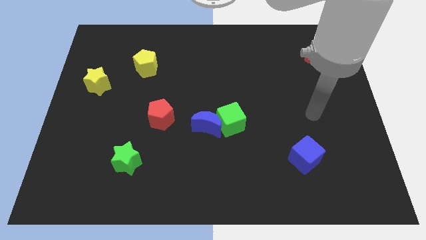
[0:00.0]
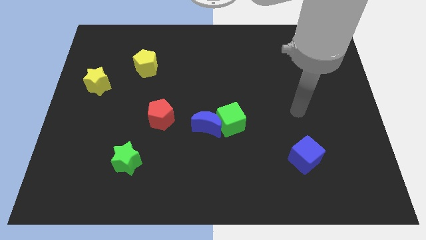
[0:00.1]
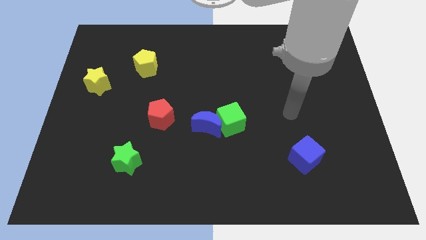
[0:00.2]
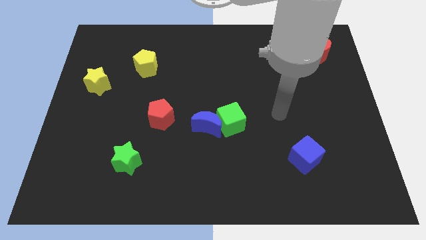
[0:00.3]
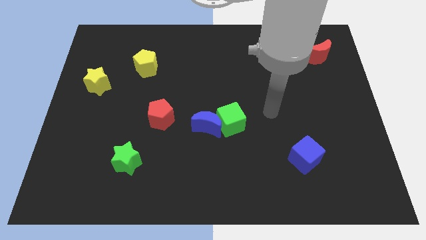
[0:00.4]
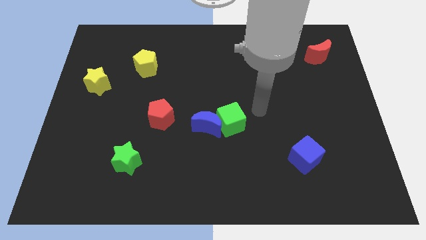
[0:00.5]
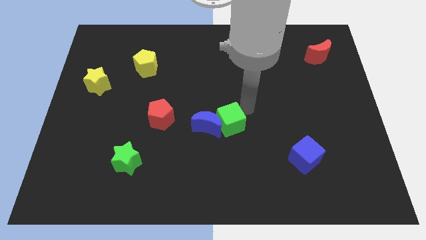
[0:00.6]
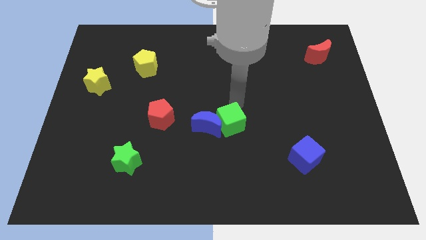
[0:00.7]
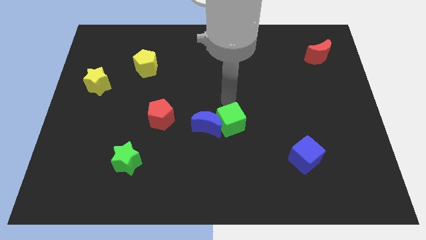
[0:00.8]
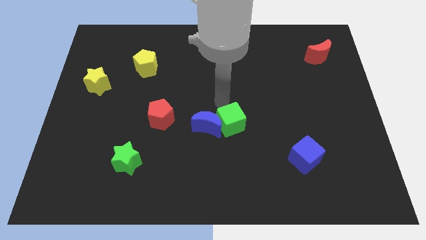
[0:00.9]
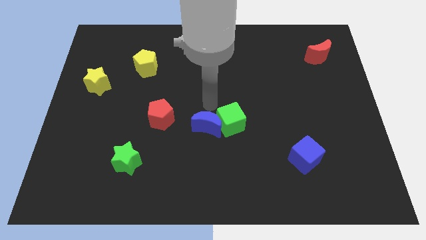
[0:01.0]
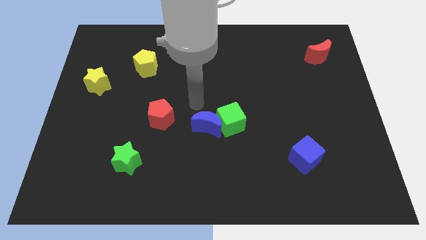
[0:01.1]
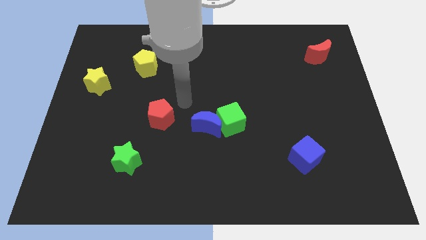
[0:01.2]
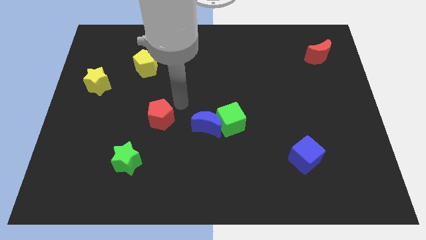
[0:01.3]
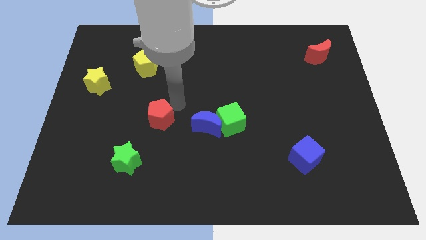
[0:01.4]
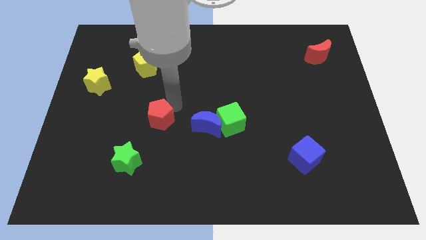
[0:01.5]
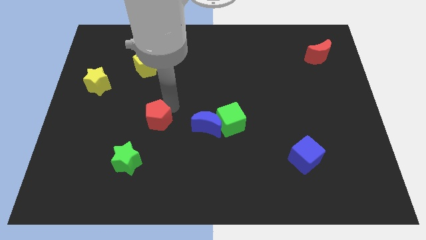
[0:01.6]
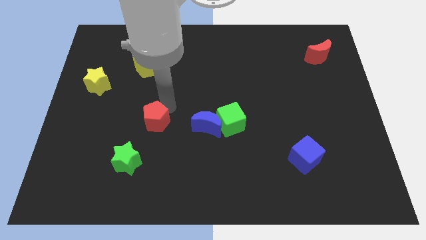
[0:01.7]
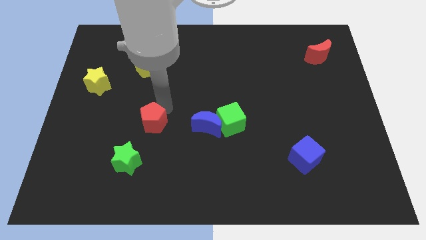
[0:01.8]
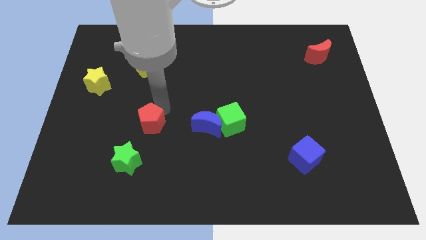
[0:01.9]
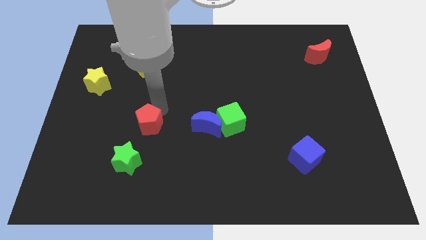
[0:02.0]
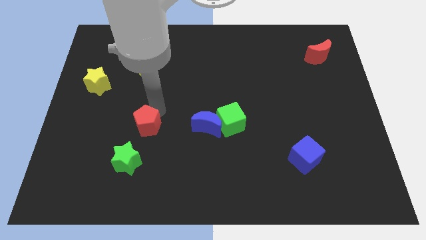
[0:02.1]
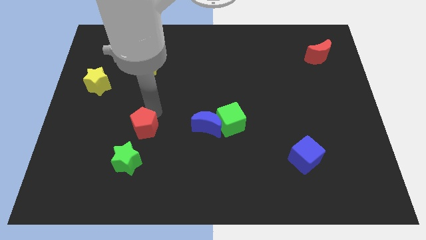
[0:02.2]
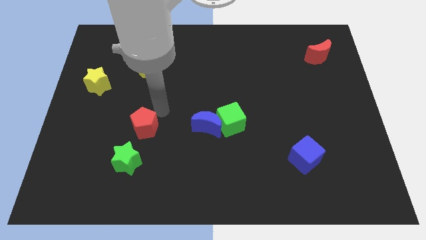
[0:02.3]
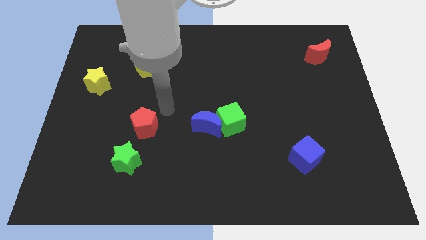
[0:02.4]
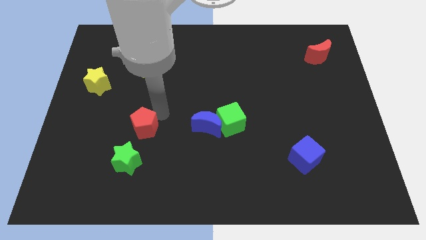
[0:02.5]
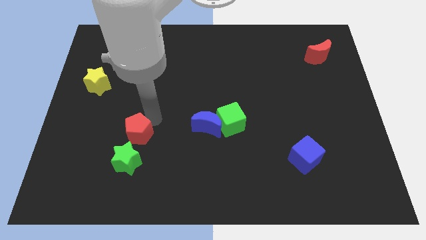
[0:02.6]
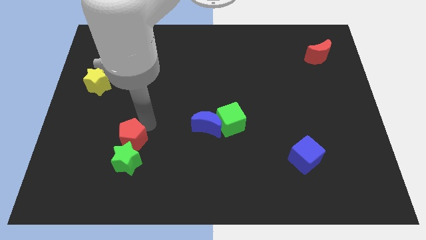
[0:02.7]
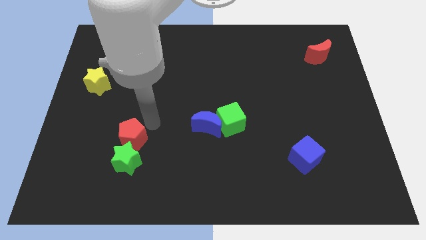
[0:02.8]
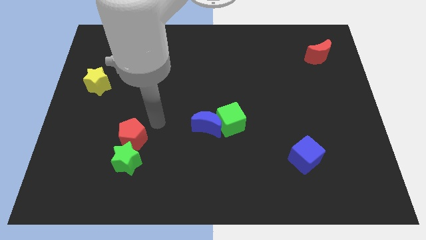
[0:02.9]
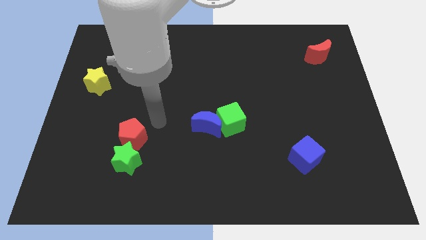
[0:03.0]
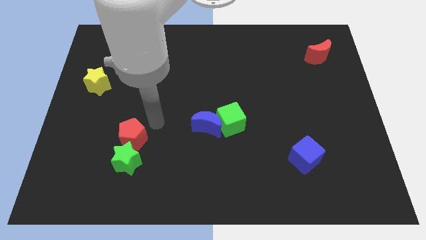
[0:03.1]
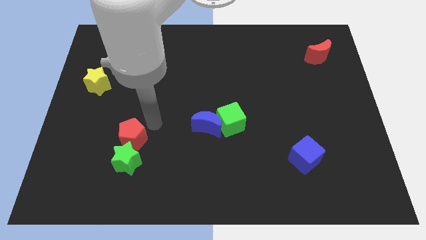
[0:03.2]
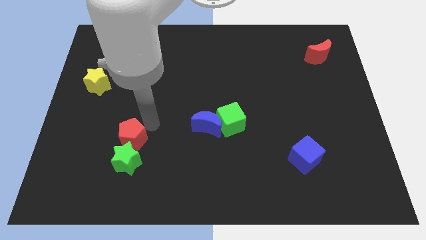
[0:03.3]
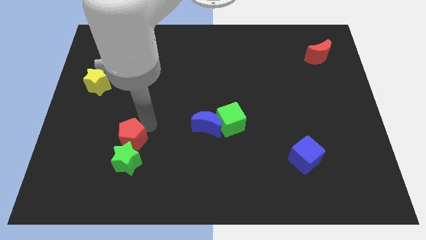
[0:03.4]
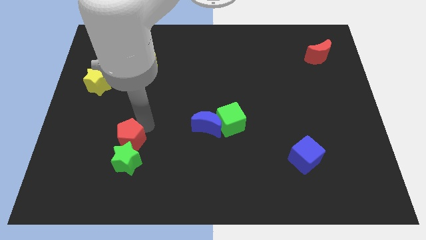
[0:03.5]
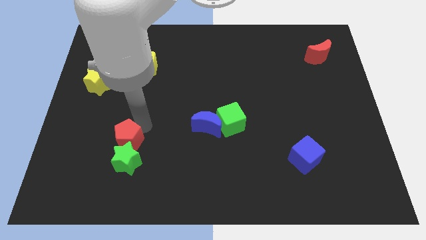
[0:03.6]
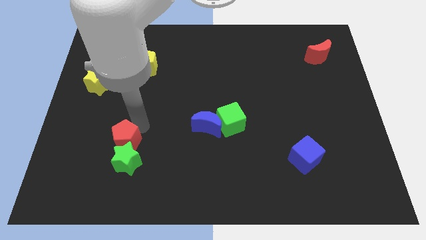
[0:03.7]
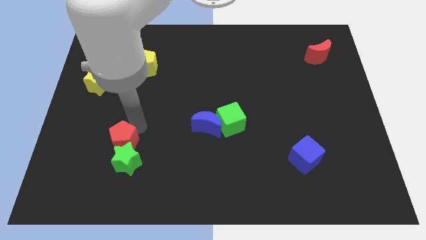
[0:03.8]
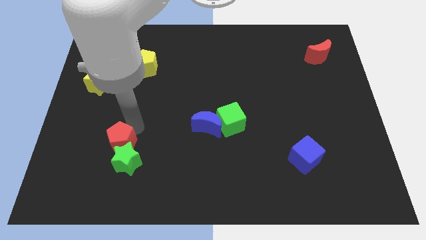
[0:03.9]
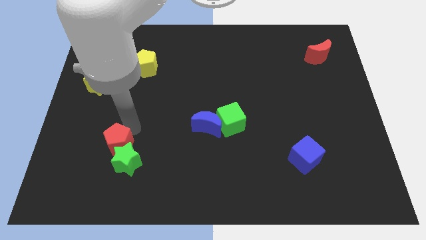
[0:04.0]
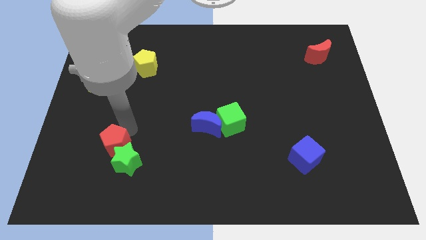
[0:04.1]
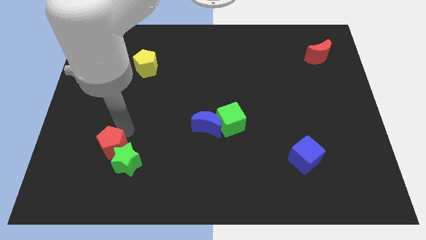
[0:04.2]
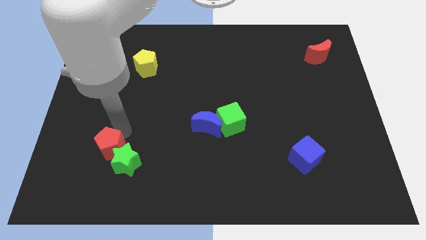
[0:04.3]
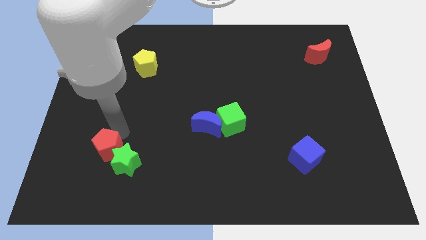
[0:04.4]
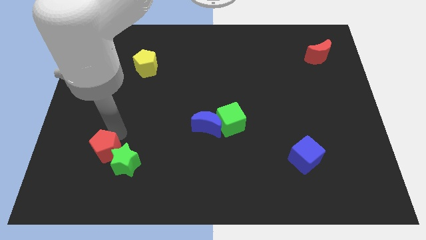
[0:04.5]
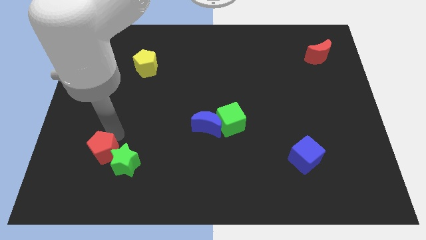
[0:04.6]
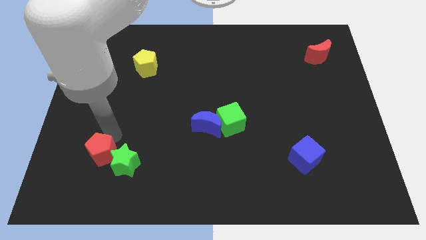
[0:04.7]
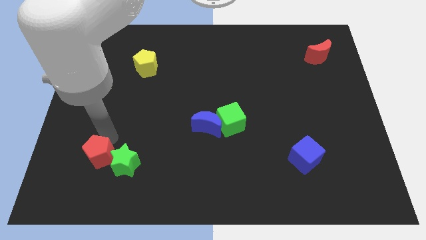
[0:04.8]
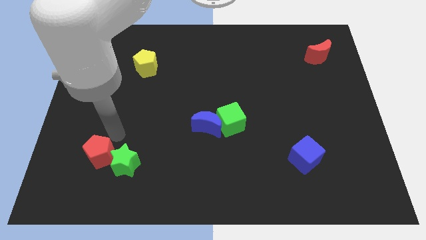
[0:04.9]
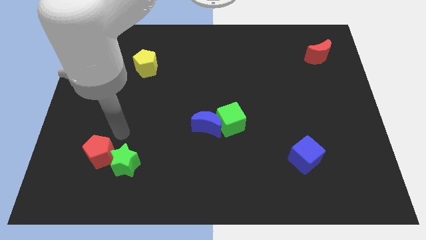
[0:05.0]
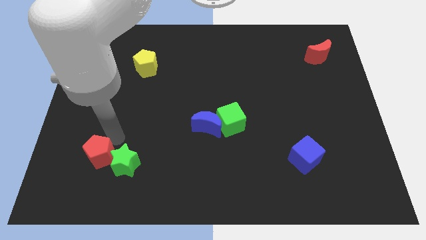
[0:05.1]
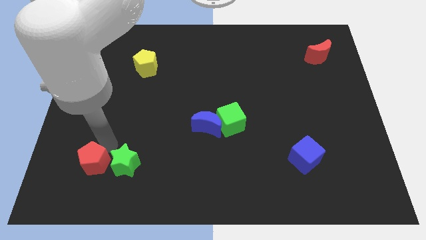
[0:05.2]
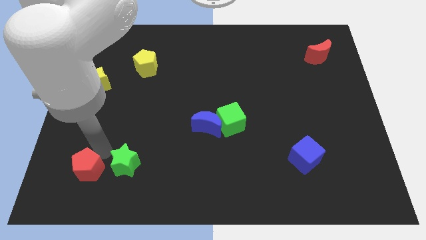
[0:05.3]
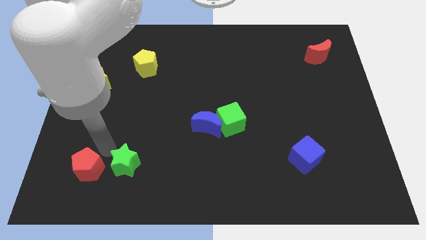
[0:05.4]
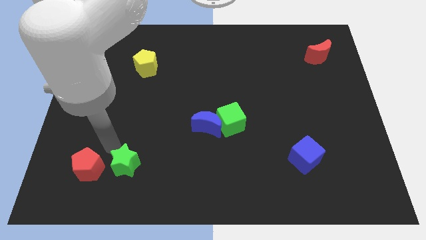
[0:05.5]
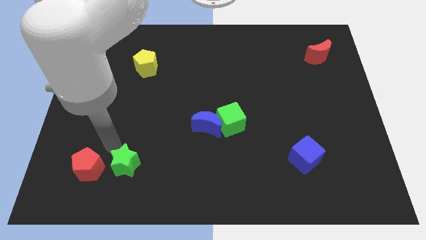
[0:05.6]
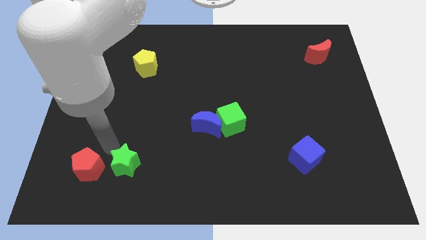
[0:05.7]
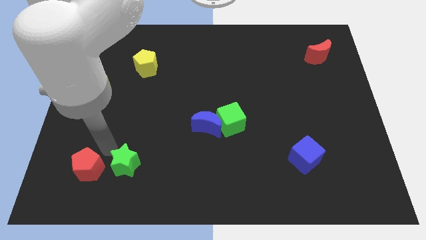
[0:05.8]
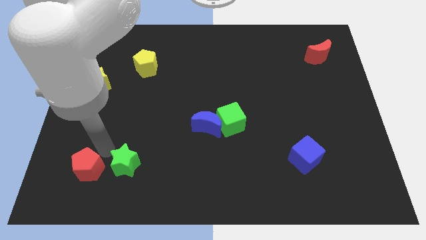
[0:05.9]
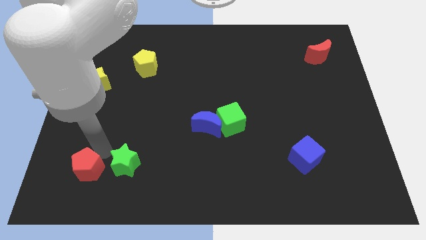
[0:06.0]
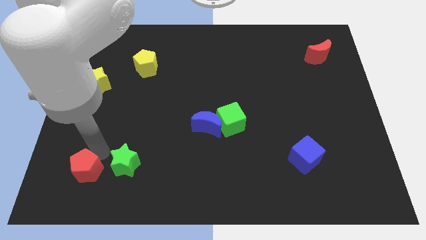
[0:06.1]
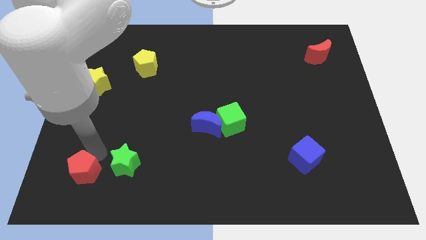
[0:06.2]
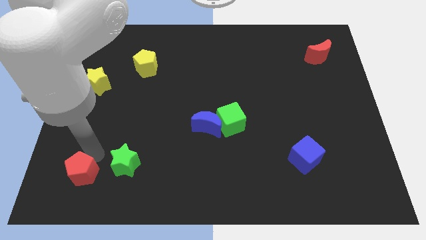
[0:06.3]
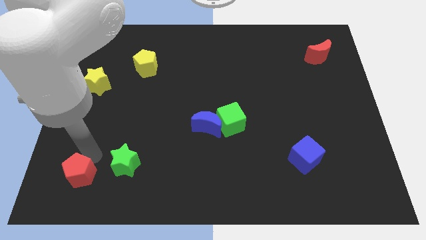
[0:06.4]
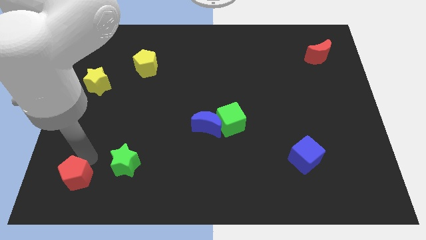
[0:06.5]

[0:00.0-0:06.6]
put the red pentagon to the bottom left of the board

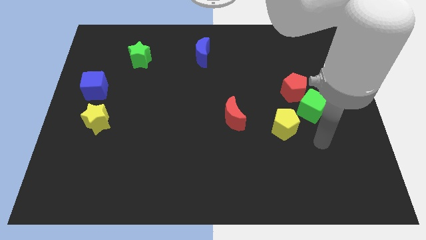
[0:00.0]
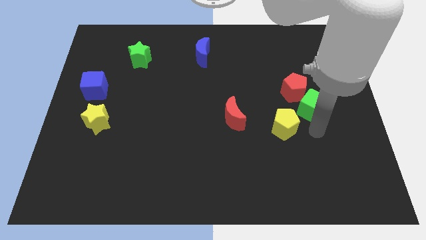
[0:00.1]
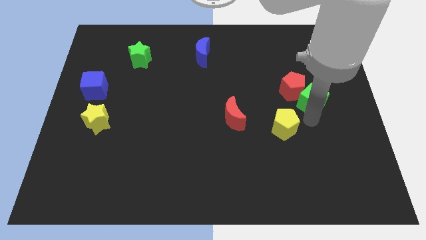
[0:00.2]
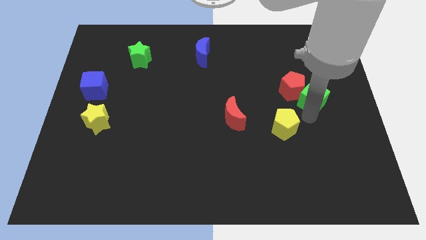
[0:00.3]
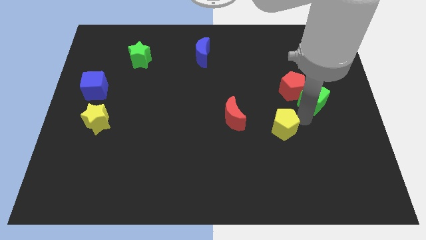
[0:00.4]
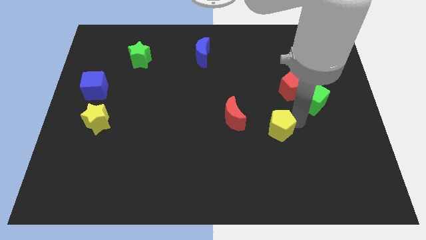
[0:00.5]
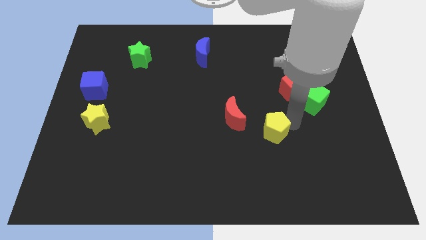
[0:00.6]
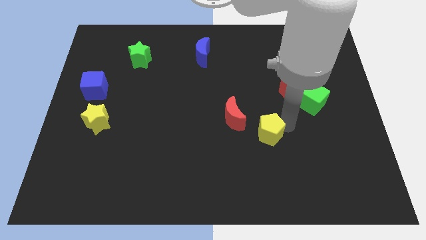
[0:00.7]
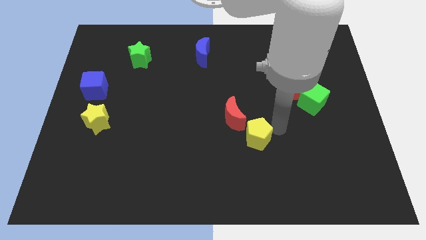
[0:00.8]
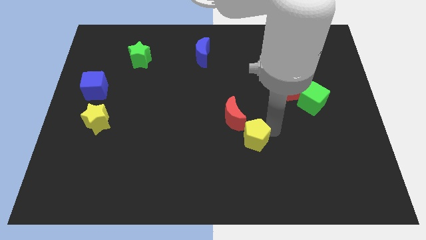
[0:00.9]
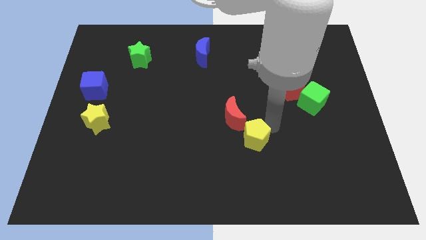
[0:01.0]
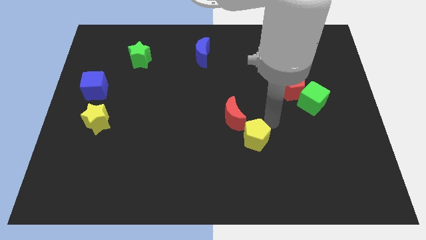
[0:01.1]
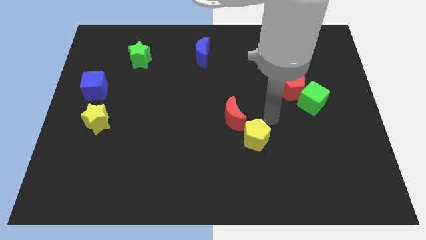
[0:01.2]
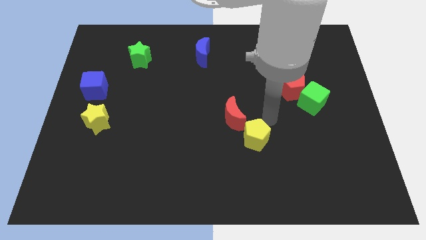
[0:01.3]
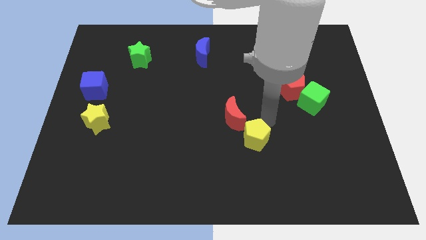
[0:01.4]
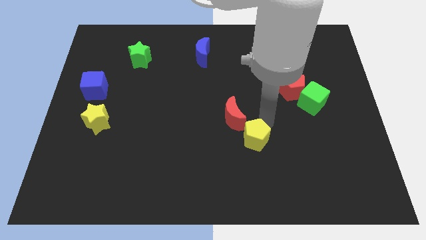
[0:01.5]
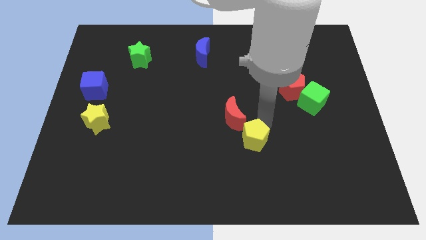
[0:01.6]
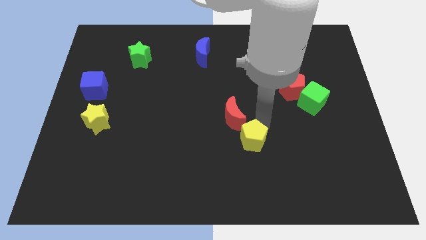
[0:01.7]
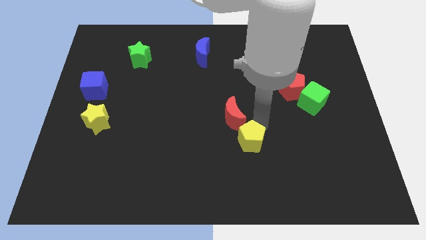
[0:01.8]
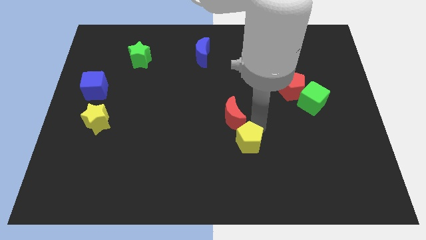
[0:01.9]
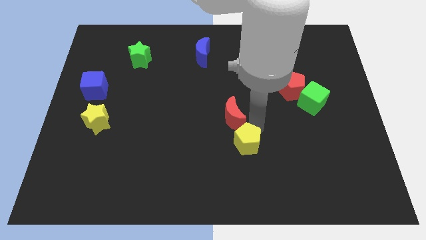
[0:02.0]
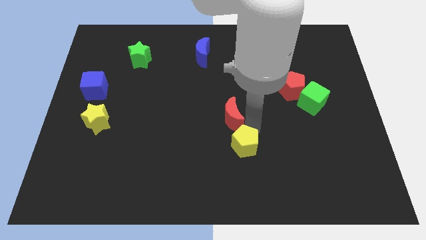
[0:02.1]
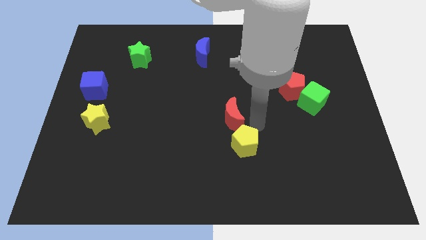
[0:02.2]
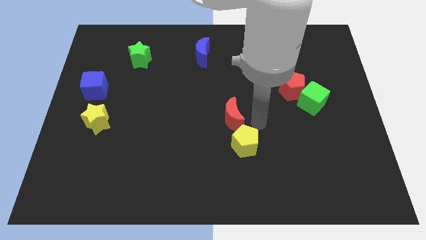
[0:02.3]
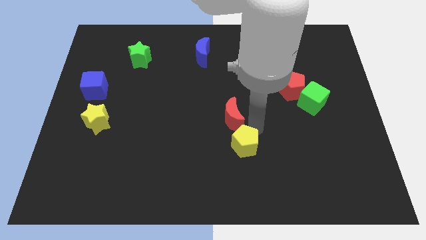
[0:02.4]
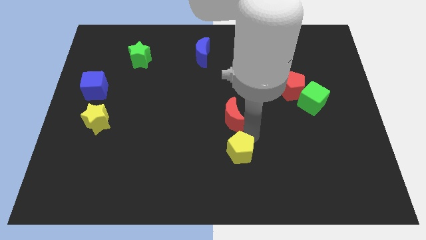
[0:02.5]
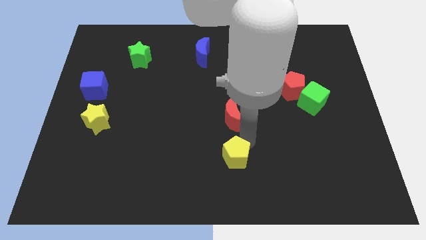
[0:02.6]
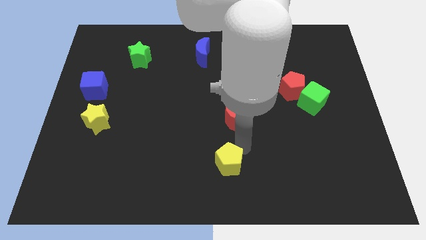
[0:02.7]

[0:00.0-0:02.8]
push the yellow pentagon to the bottom
